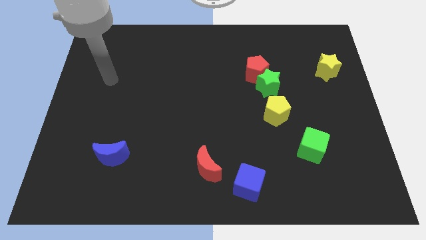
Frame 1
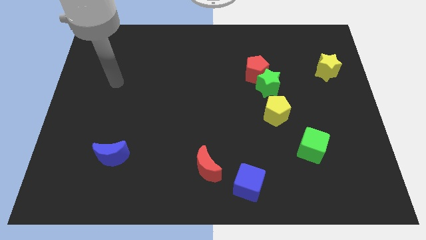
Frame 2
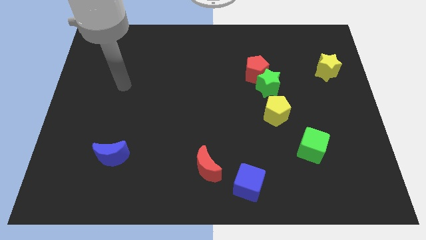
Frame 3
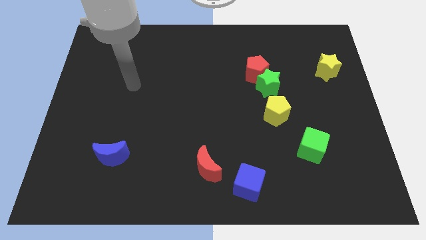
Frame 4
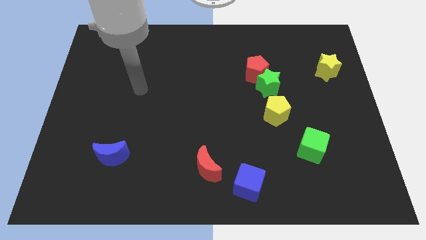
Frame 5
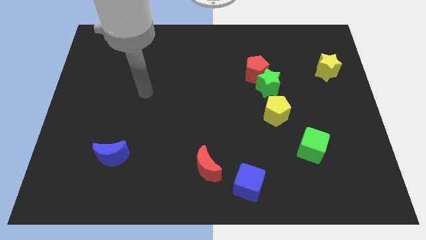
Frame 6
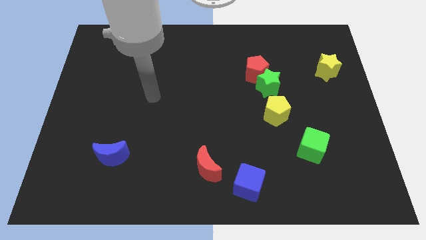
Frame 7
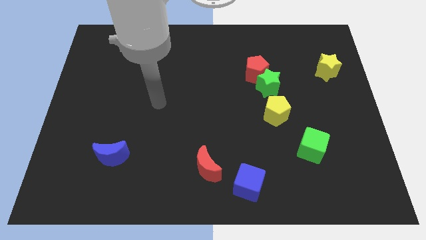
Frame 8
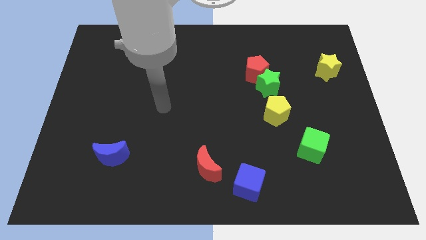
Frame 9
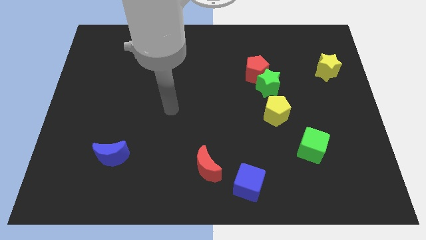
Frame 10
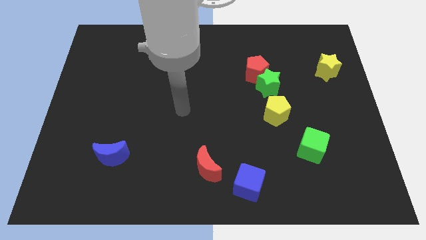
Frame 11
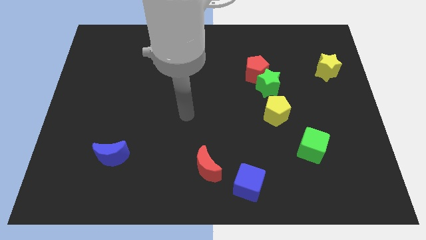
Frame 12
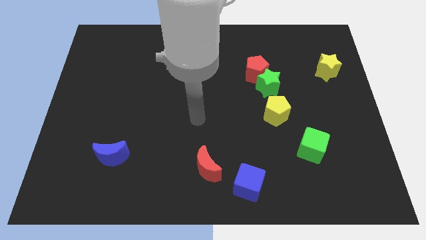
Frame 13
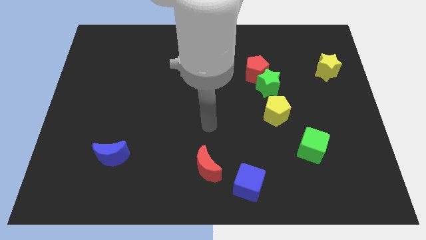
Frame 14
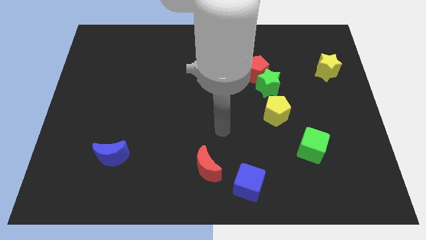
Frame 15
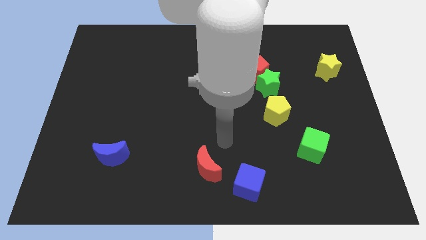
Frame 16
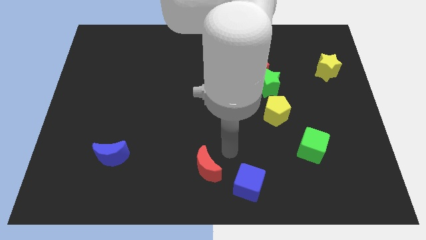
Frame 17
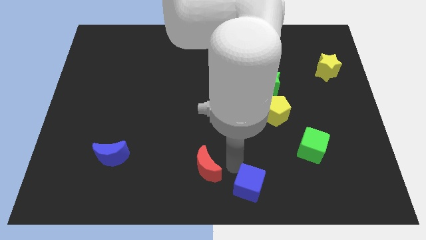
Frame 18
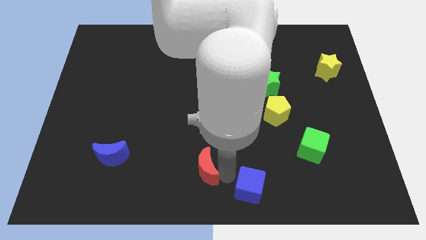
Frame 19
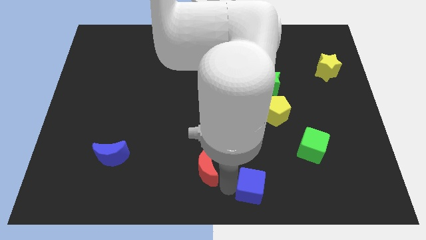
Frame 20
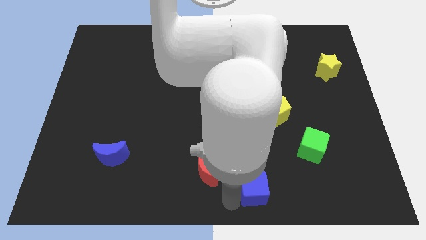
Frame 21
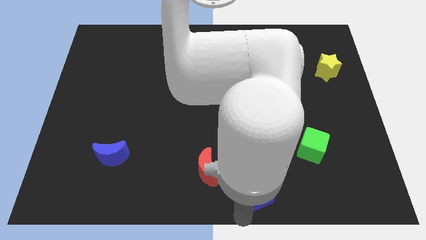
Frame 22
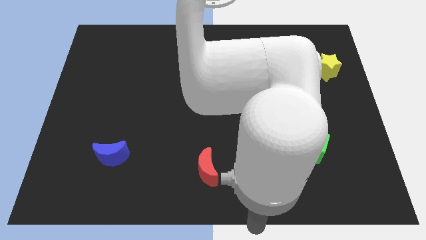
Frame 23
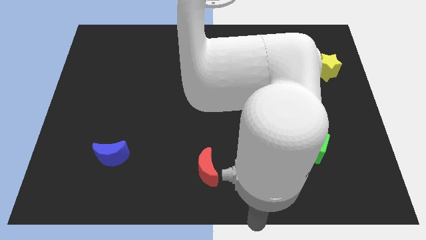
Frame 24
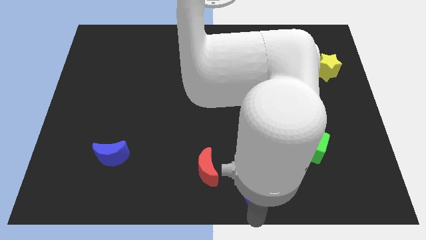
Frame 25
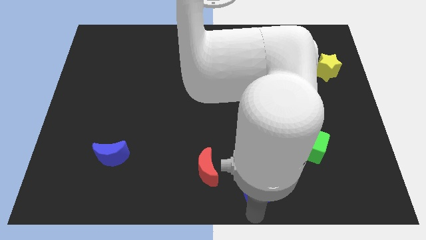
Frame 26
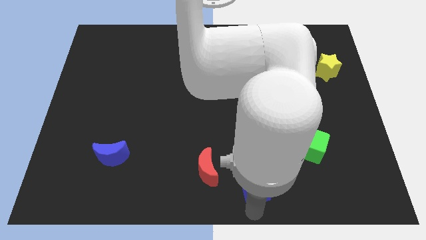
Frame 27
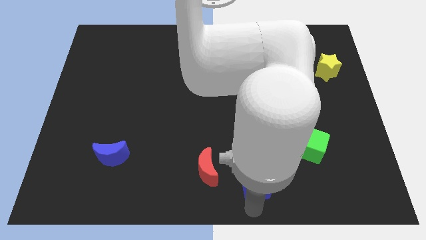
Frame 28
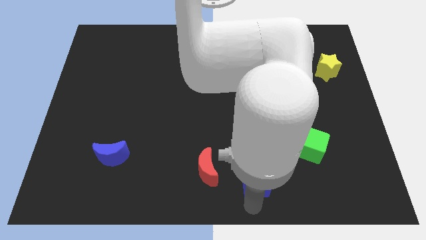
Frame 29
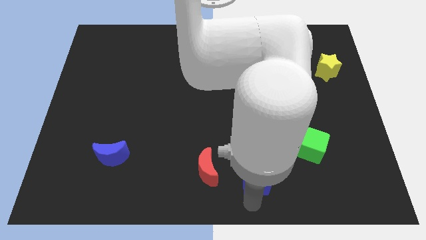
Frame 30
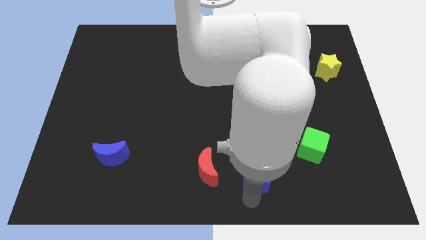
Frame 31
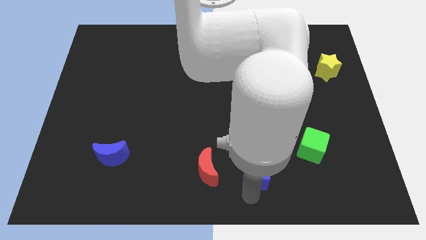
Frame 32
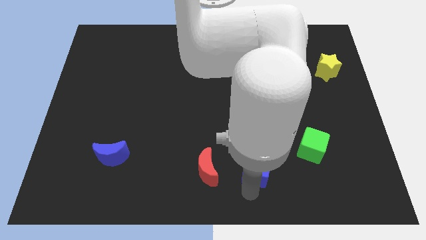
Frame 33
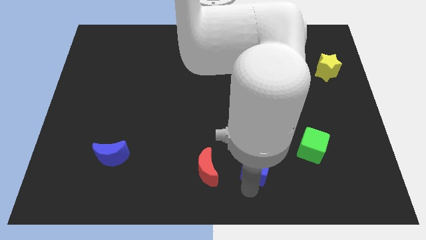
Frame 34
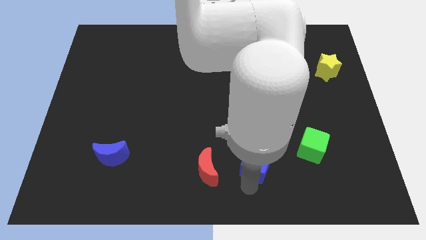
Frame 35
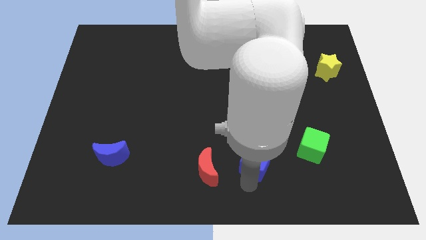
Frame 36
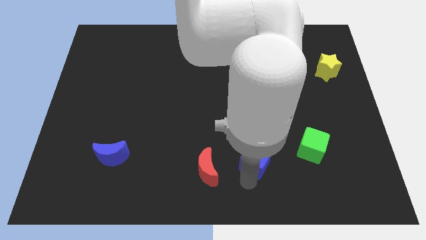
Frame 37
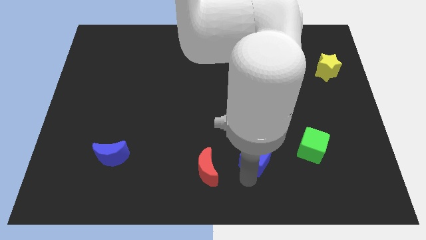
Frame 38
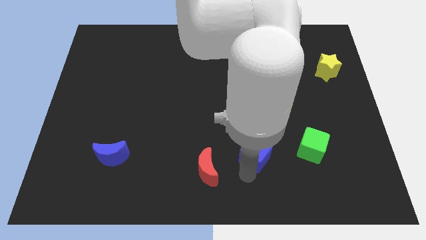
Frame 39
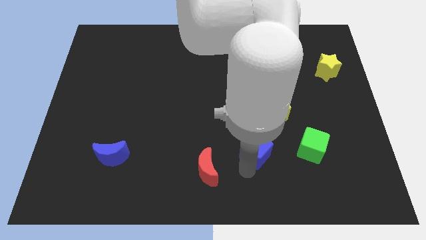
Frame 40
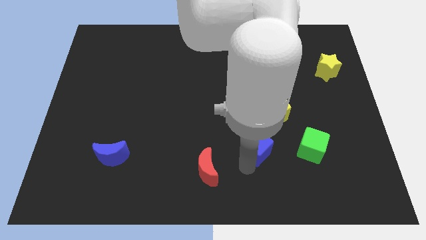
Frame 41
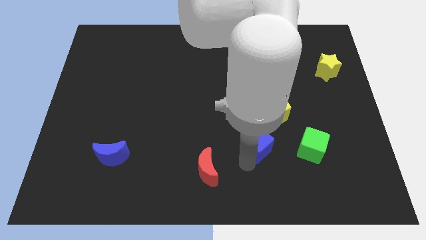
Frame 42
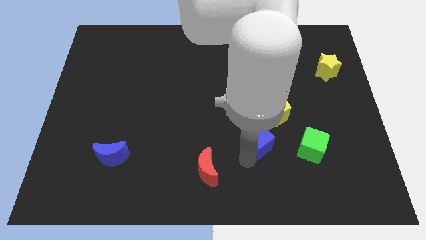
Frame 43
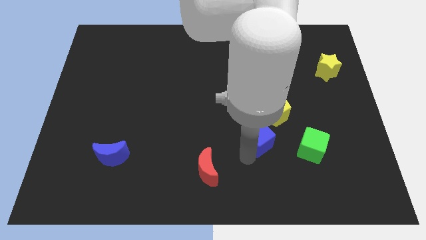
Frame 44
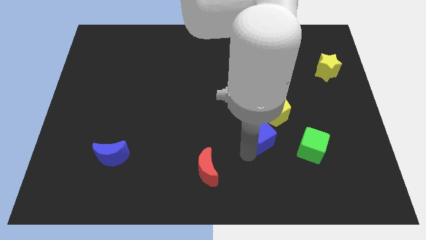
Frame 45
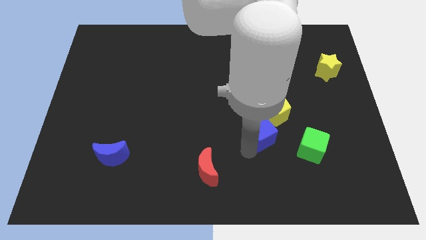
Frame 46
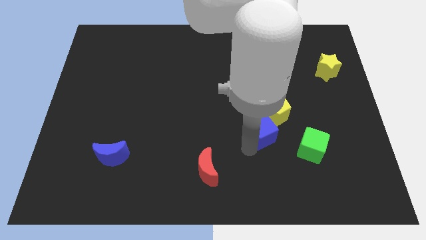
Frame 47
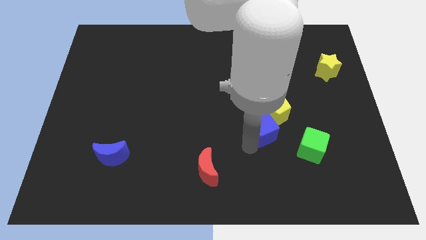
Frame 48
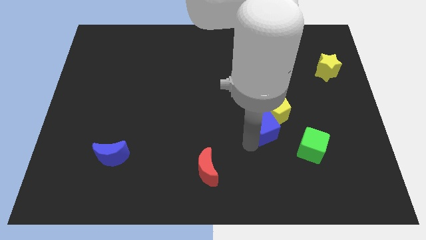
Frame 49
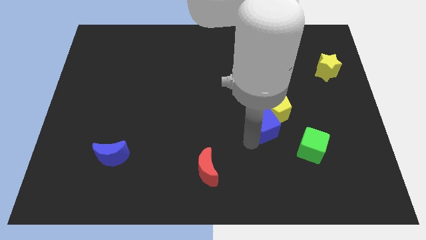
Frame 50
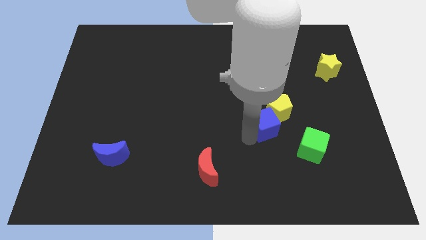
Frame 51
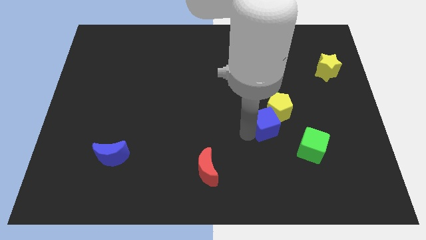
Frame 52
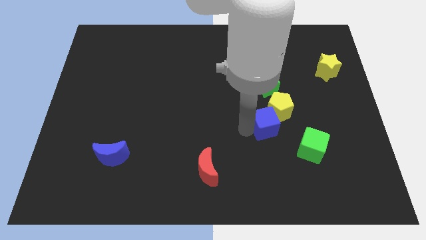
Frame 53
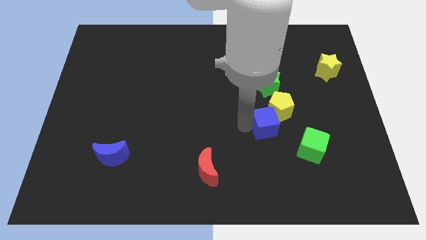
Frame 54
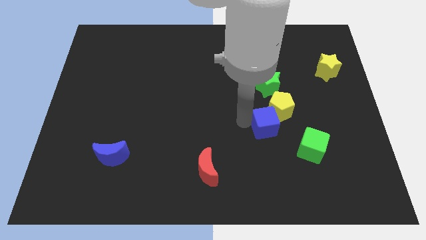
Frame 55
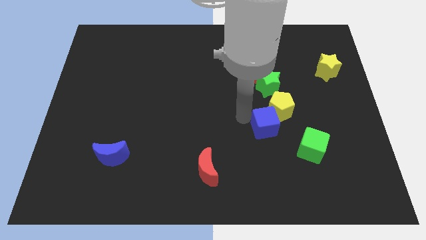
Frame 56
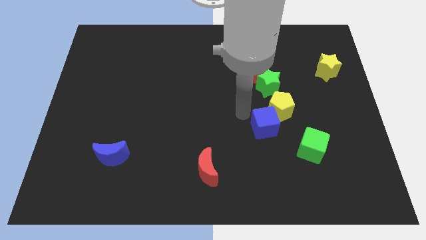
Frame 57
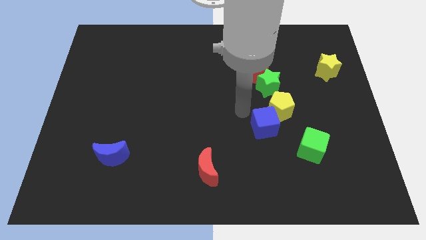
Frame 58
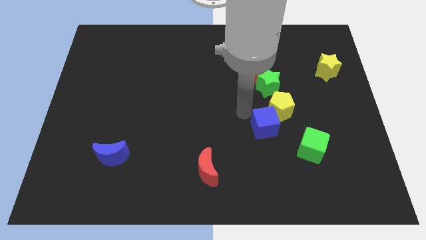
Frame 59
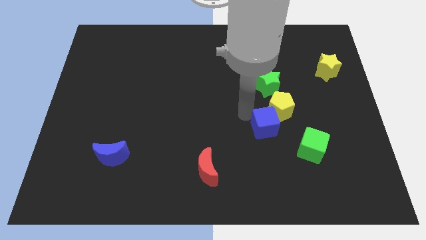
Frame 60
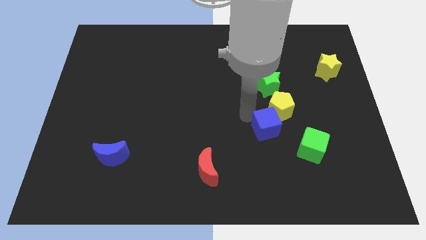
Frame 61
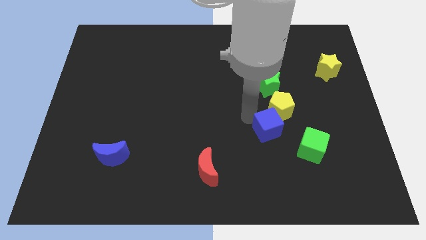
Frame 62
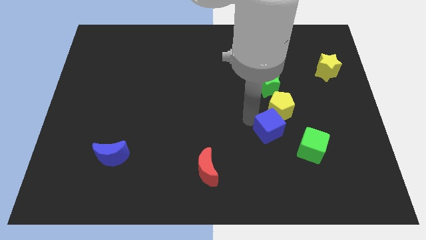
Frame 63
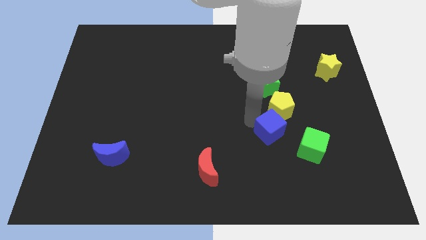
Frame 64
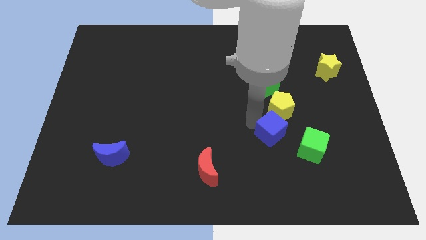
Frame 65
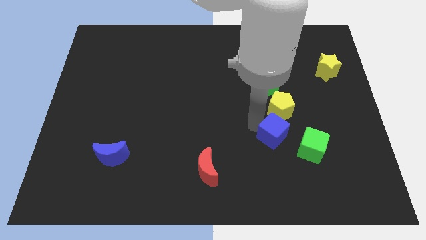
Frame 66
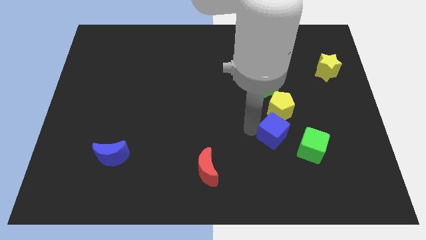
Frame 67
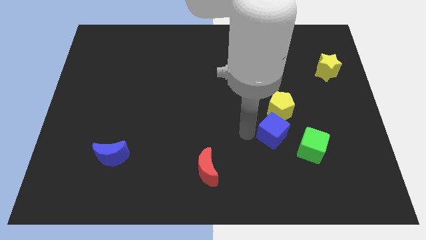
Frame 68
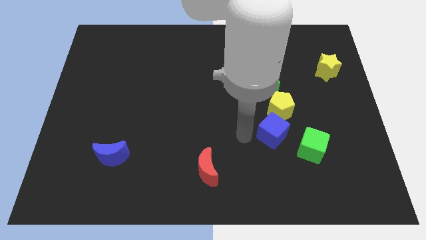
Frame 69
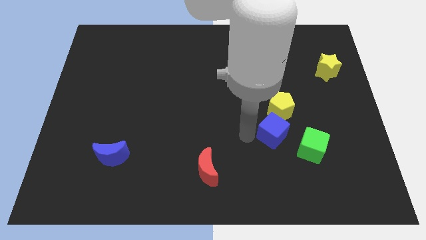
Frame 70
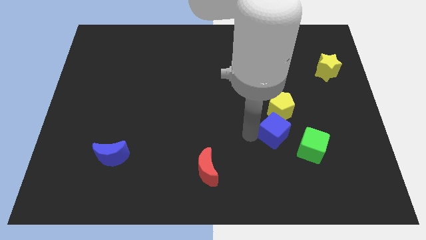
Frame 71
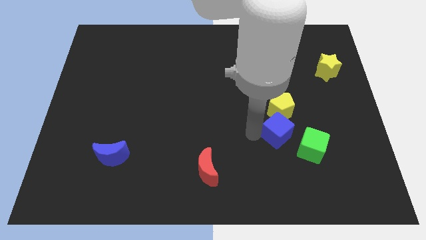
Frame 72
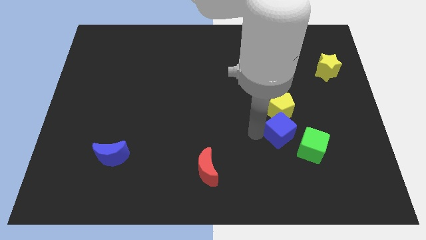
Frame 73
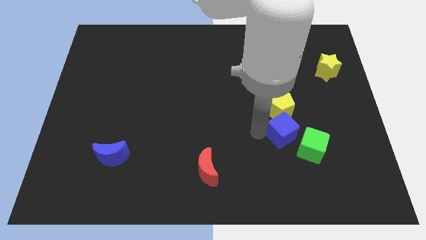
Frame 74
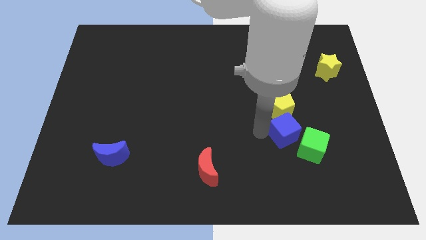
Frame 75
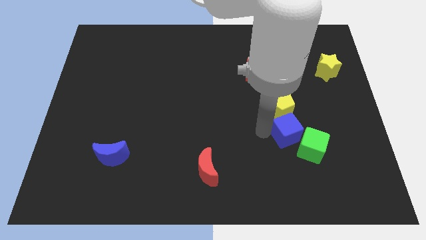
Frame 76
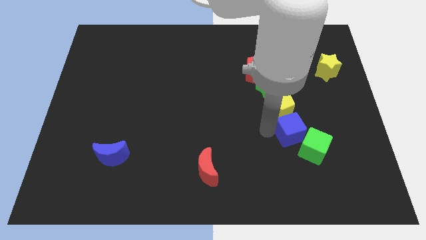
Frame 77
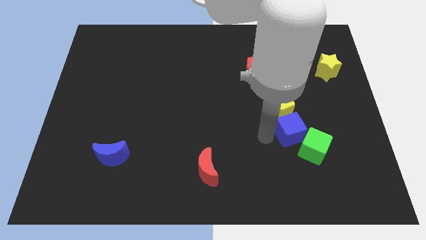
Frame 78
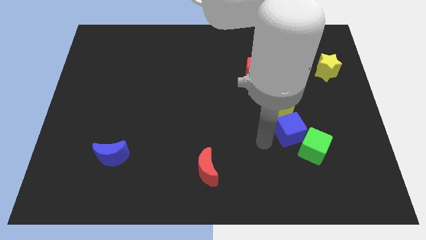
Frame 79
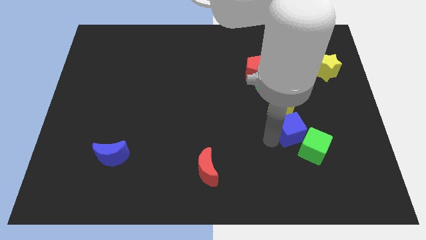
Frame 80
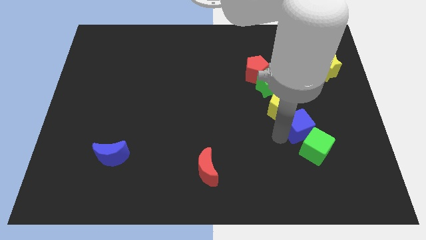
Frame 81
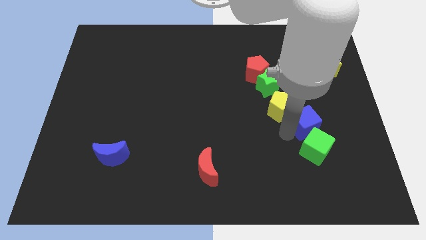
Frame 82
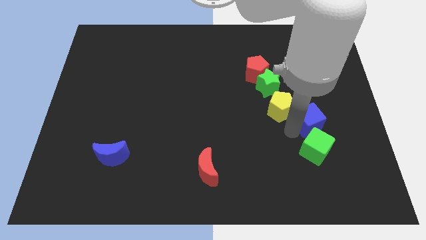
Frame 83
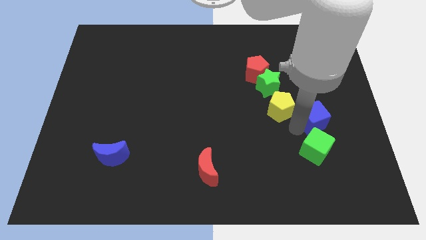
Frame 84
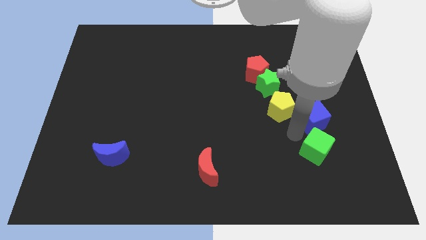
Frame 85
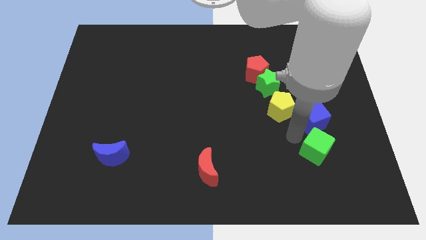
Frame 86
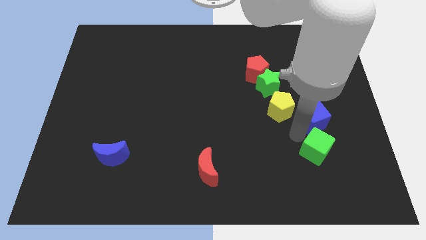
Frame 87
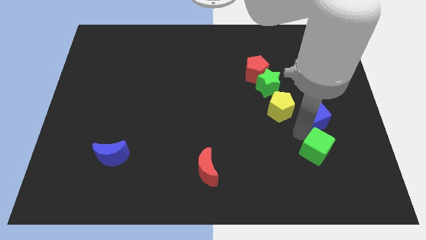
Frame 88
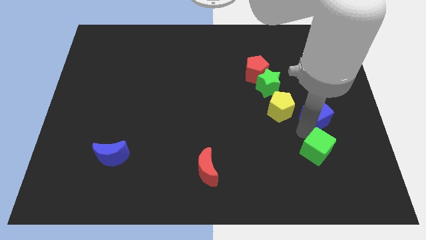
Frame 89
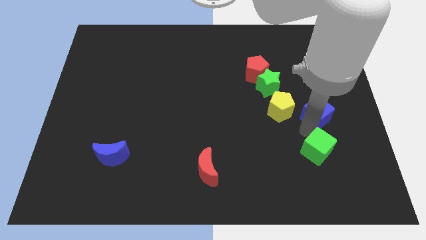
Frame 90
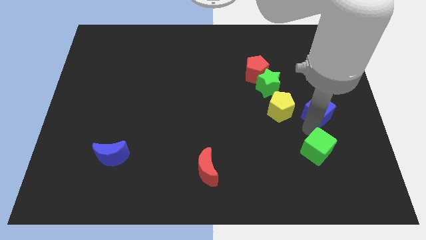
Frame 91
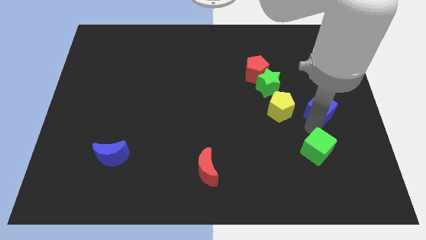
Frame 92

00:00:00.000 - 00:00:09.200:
put the blue cube to the bottom of the yellow star
